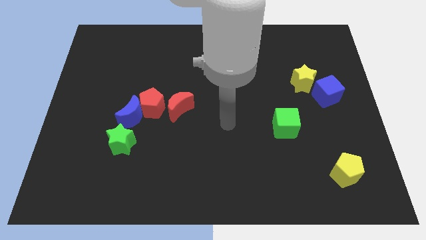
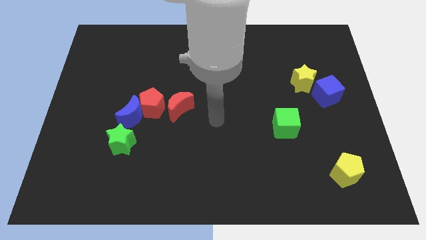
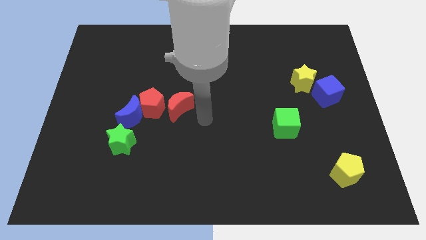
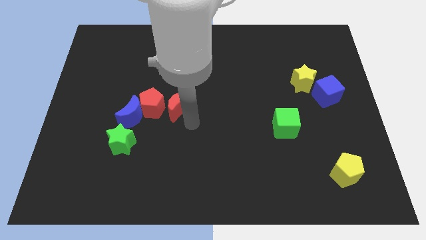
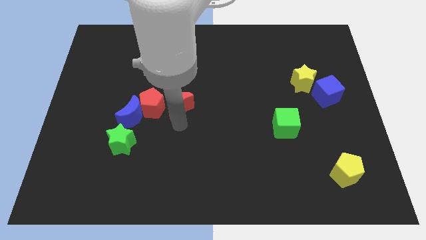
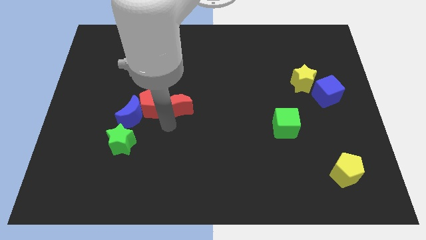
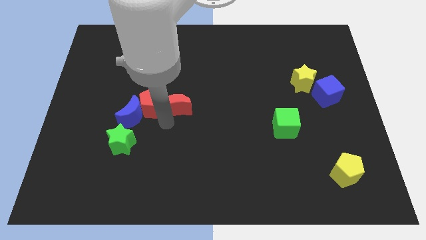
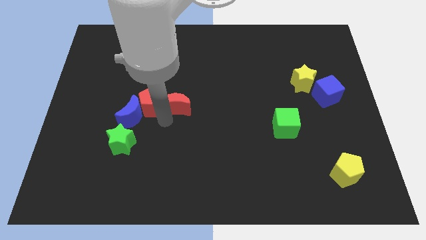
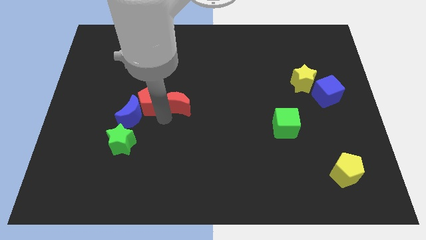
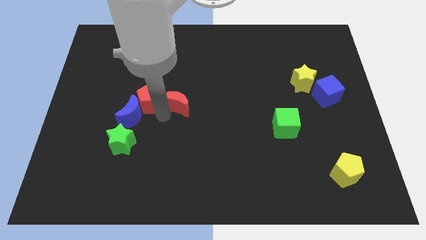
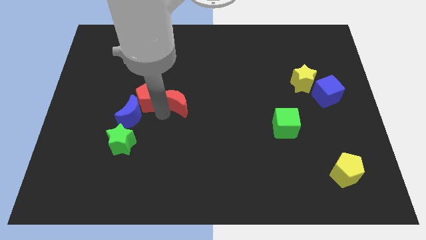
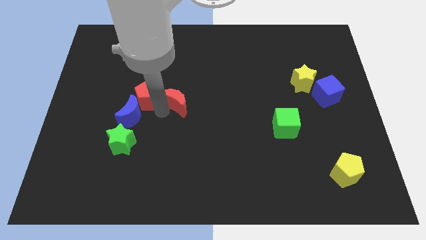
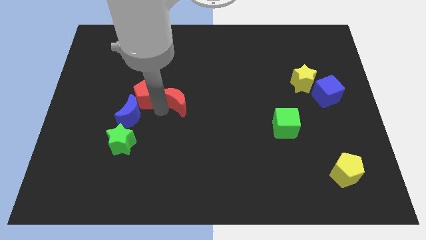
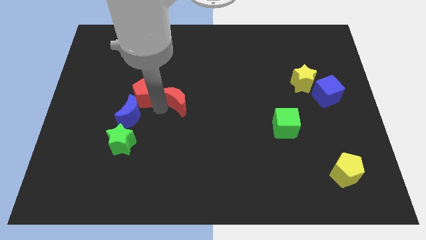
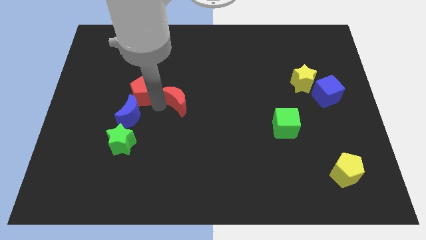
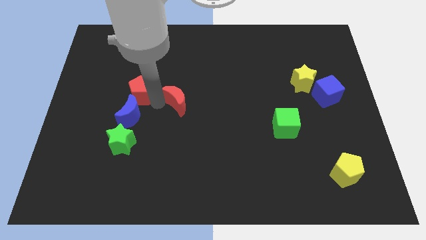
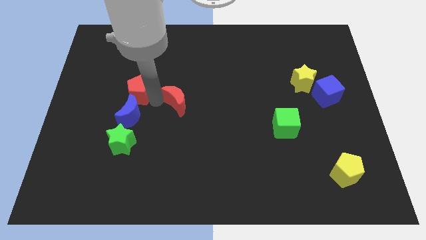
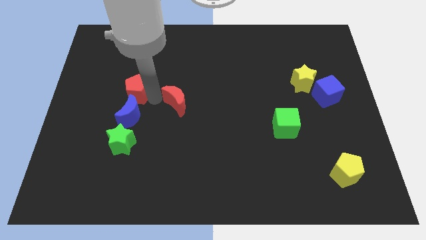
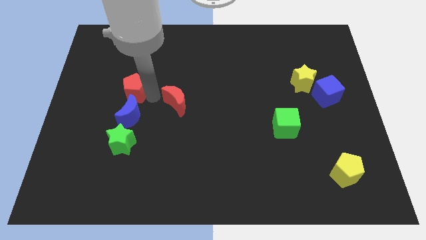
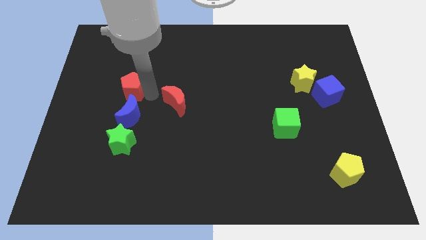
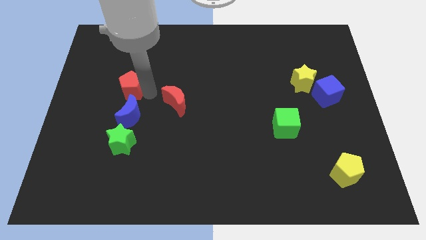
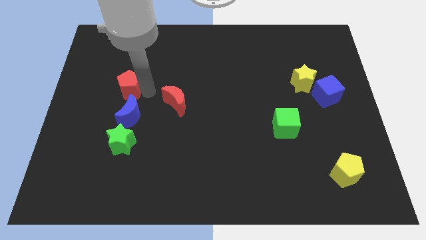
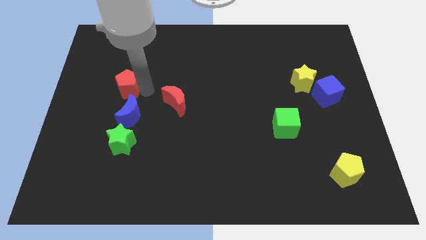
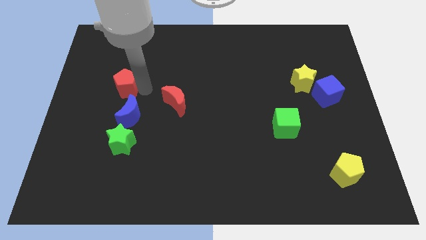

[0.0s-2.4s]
move the red pentagon away from the blue moon and red moon

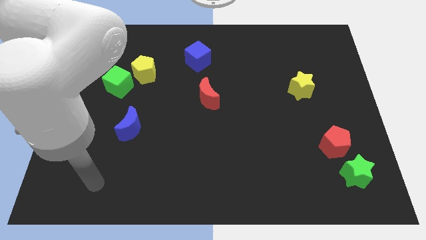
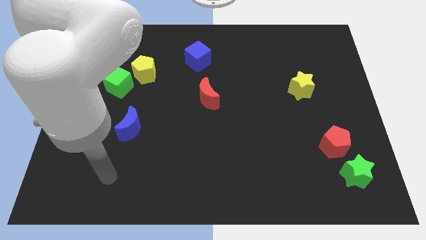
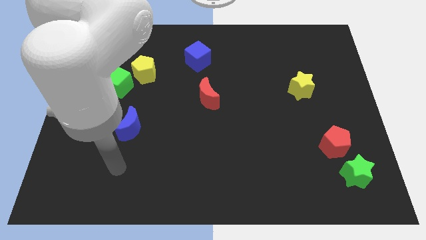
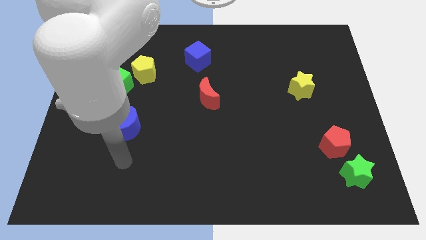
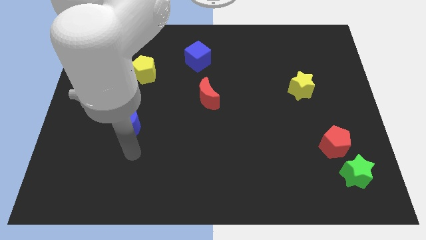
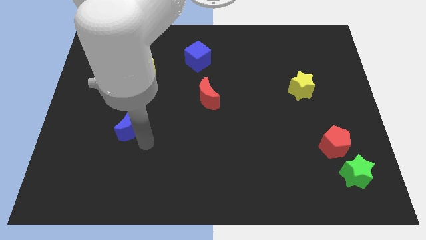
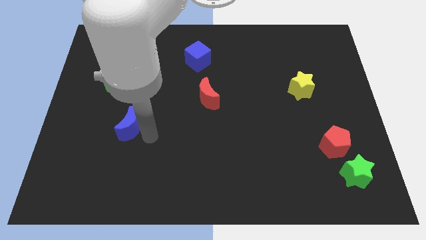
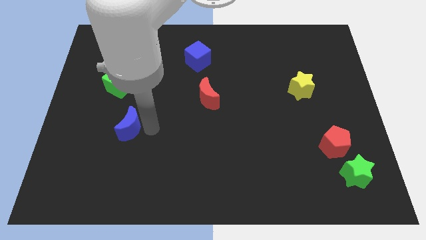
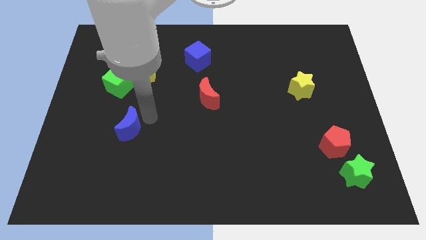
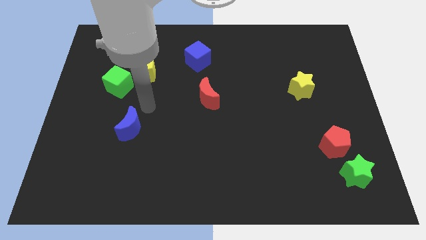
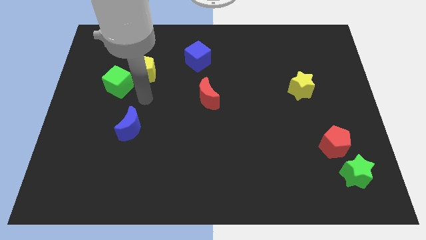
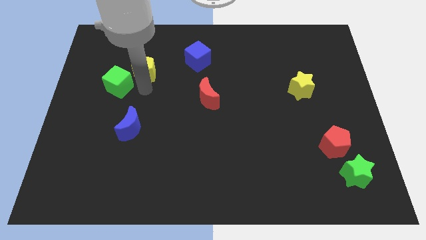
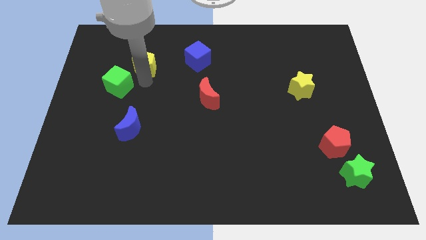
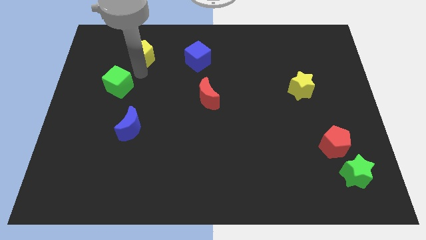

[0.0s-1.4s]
separate the green cube from the yellow pentagon

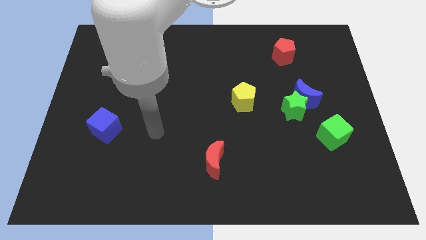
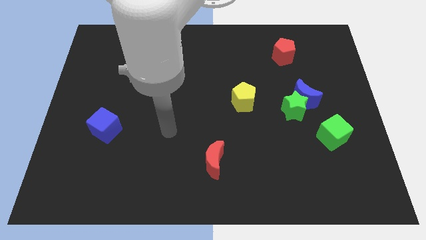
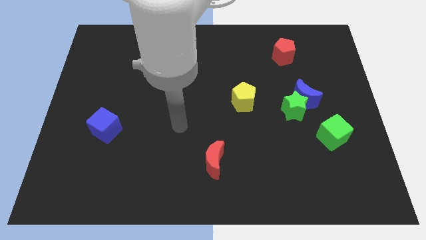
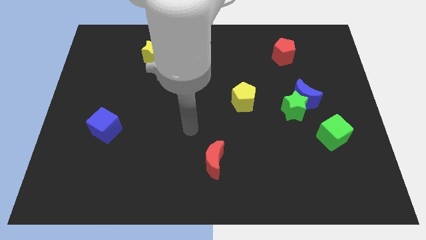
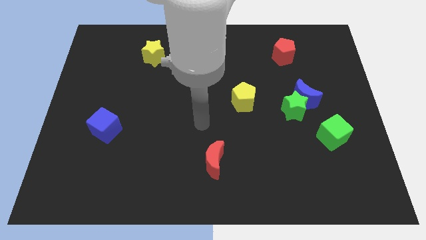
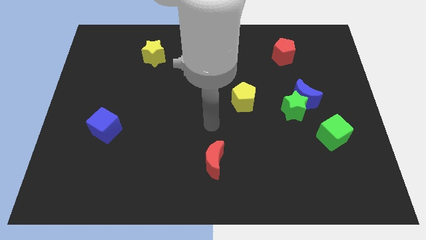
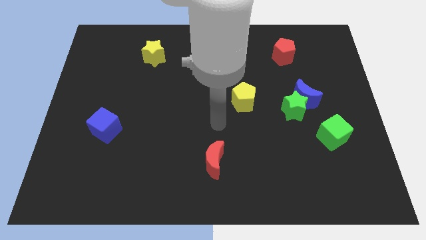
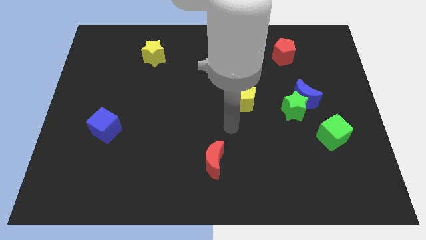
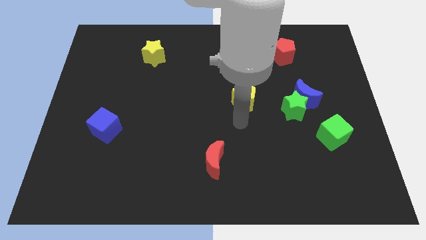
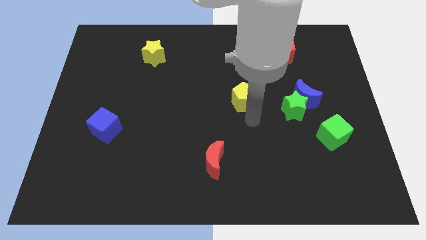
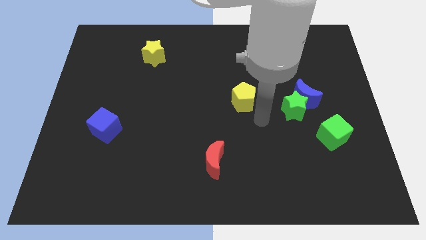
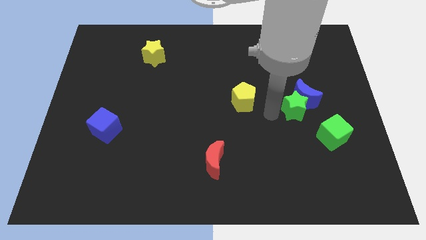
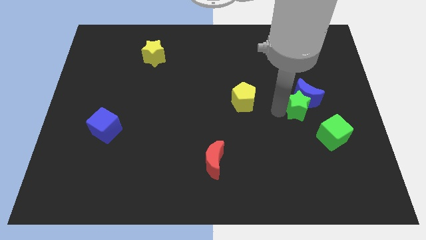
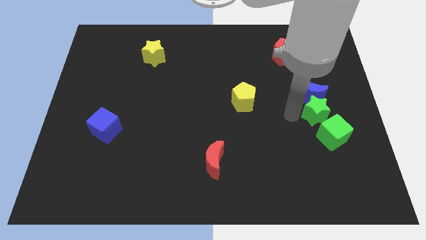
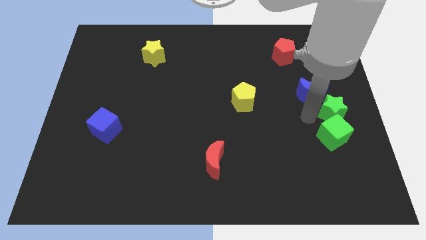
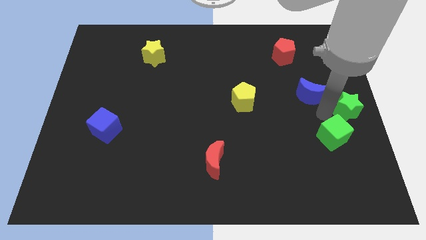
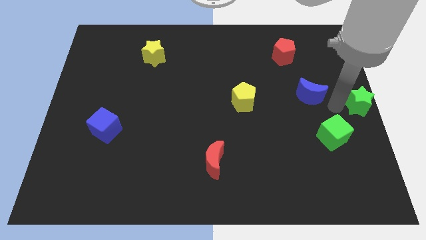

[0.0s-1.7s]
move the blue moon away from the green star

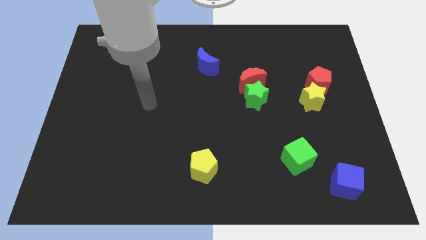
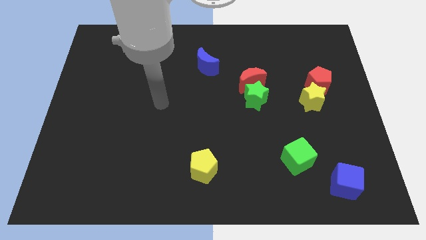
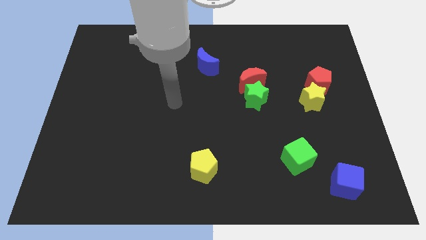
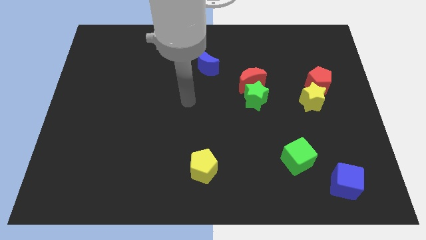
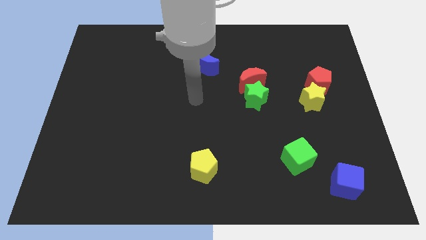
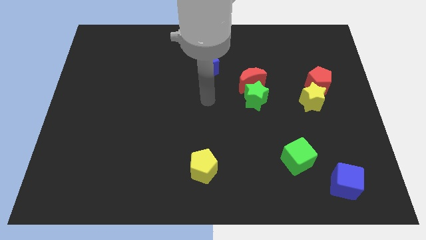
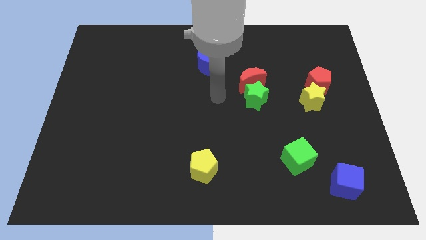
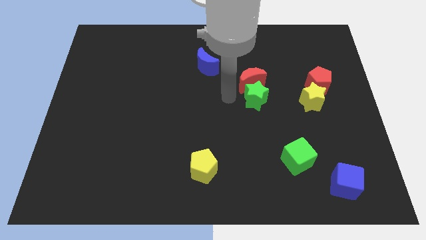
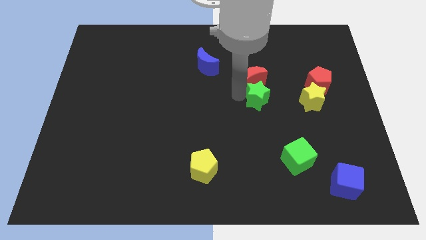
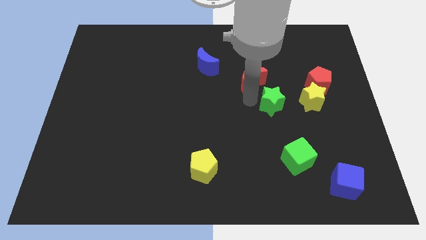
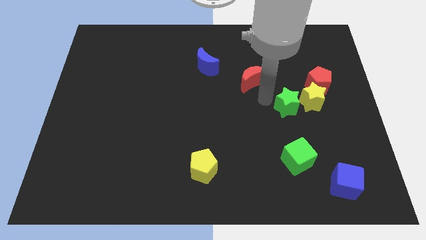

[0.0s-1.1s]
move the red moon away from the green star

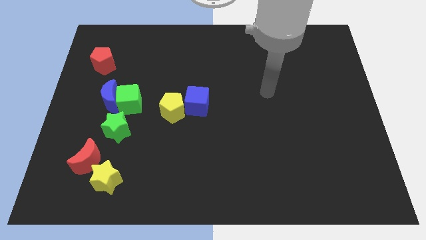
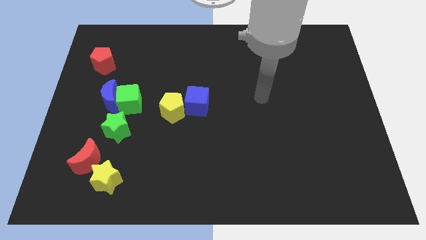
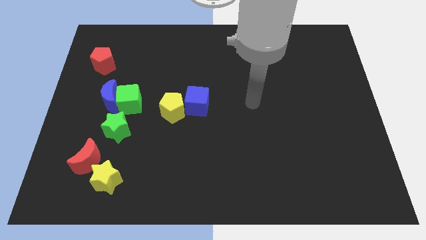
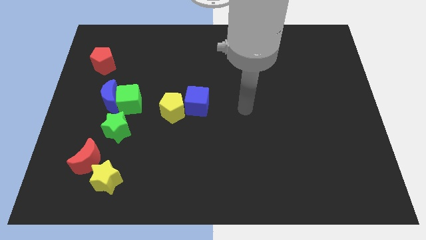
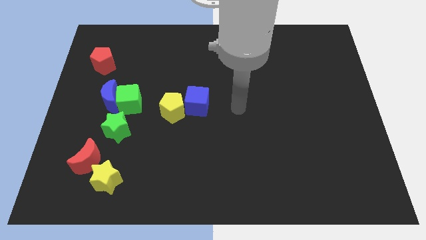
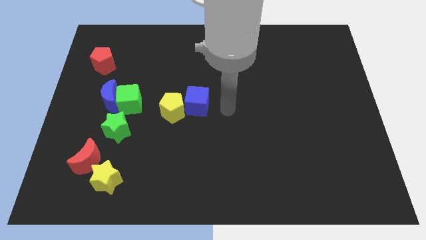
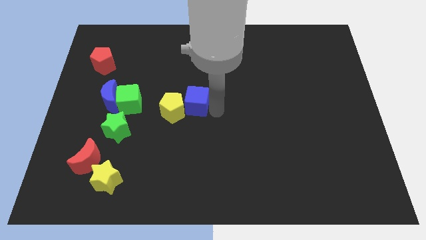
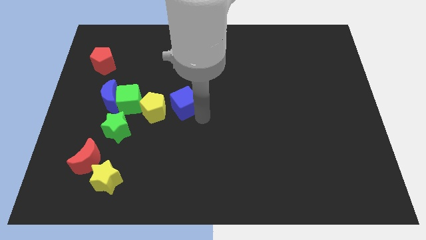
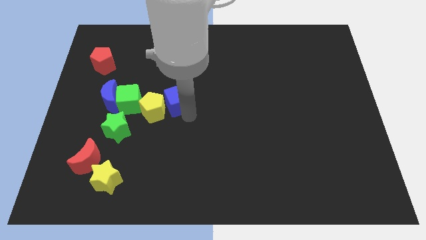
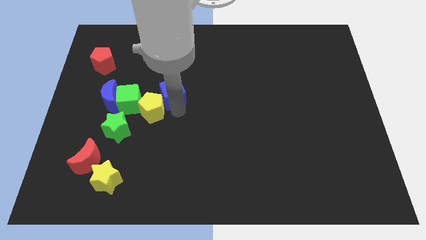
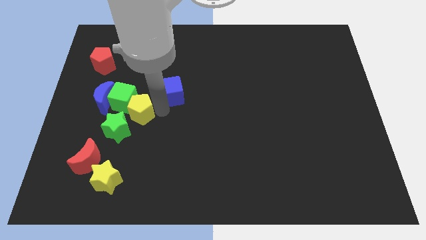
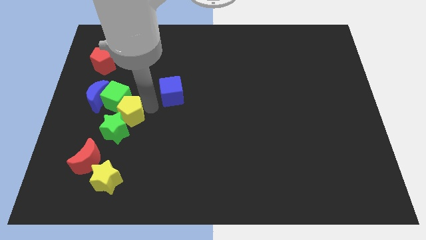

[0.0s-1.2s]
separate the blue cube from the yellow pentagon

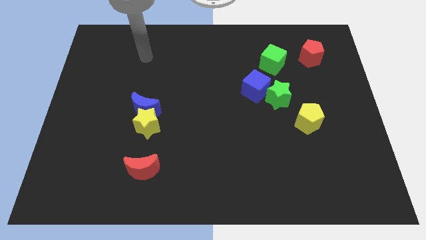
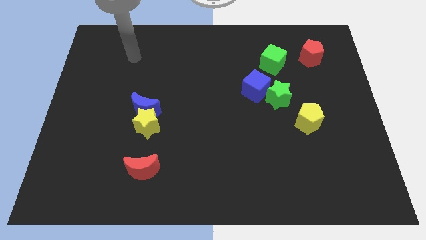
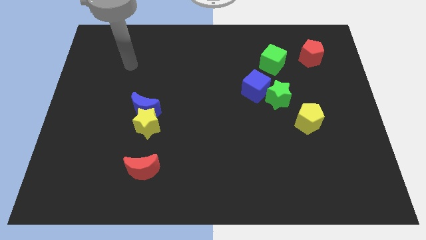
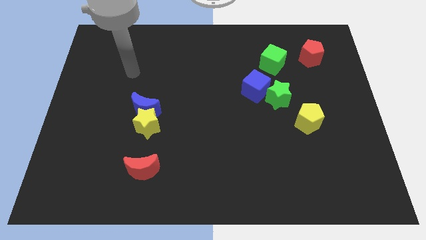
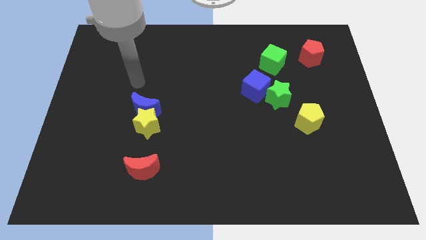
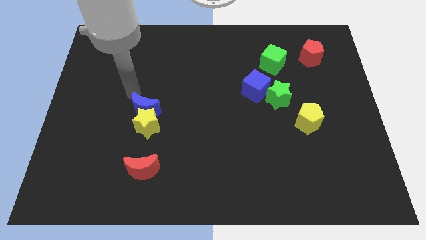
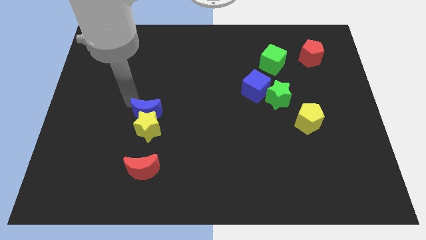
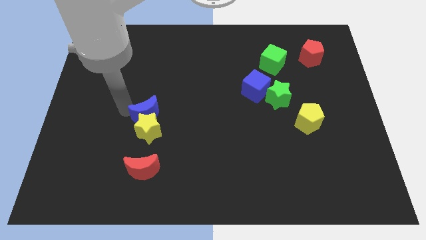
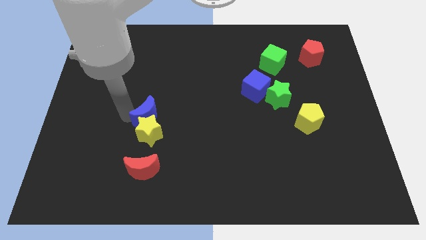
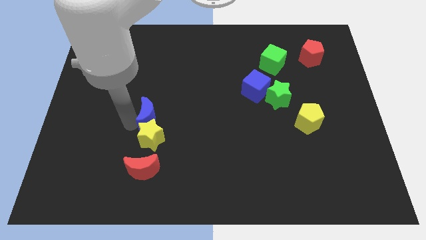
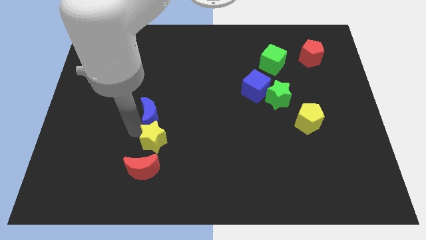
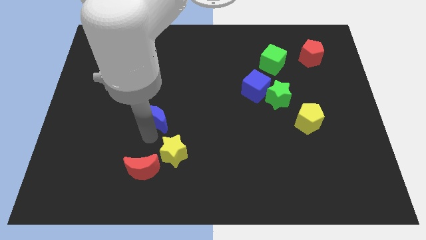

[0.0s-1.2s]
separate the blue moon from the yellow star

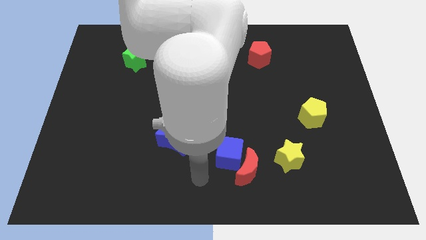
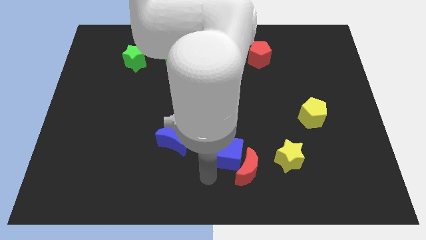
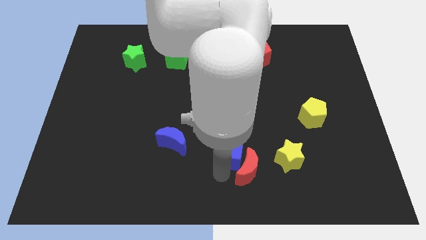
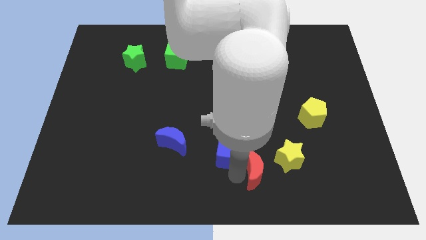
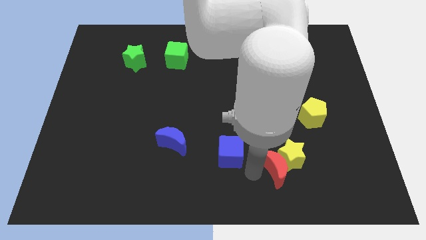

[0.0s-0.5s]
move the blue cube away from the red moon
